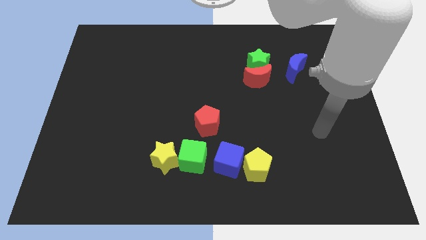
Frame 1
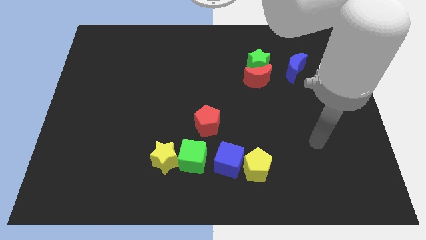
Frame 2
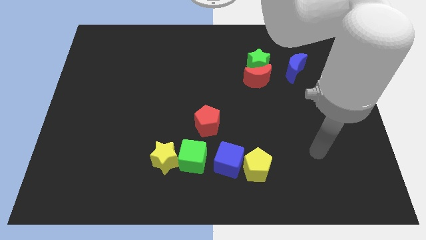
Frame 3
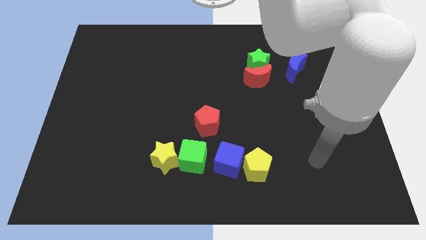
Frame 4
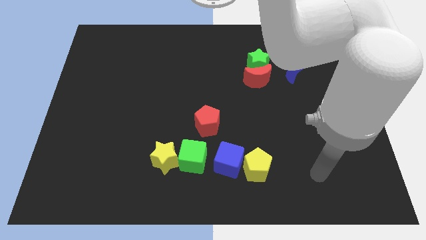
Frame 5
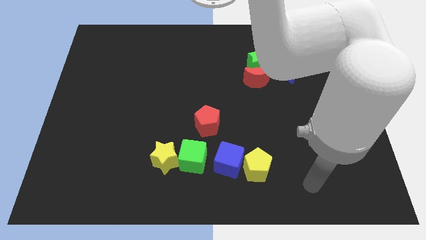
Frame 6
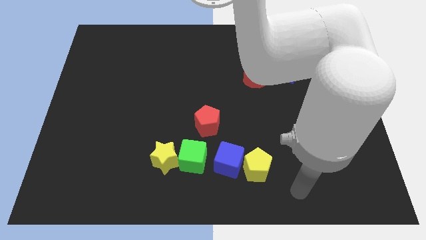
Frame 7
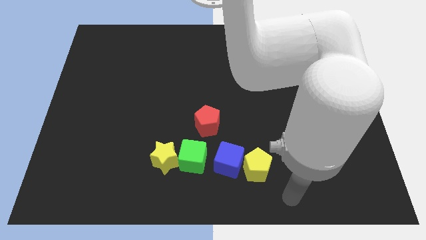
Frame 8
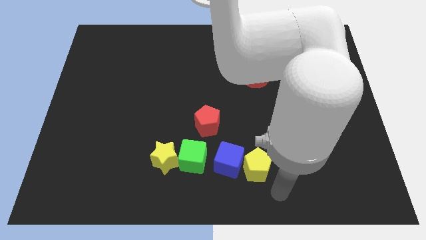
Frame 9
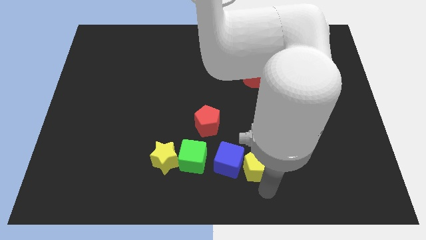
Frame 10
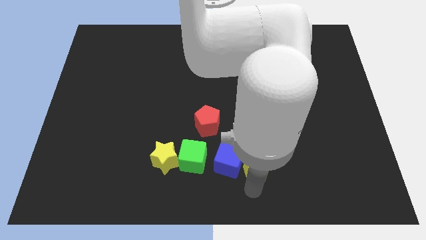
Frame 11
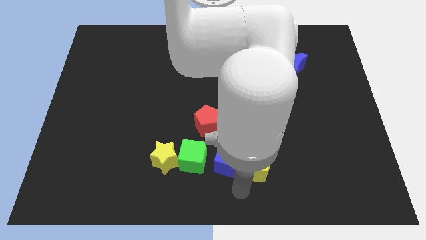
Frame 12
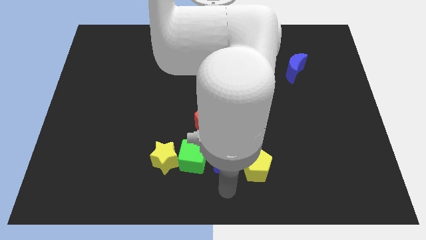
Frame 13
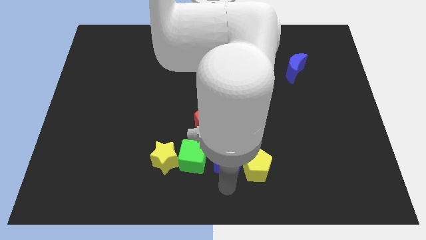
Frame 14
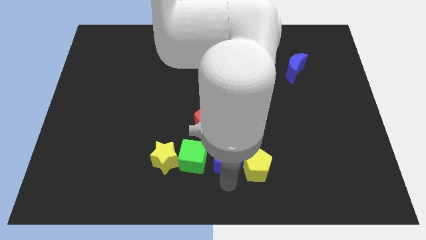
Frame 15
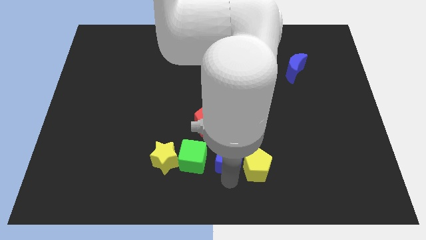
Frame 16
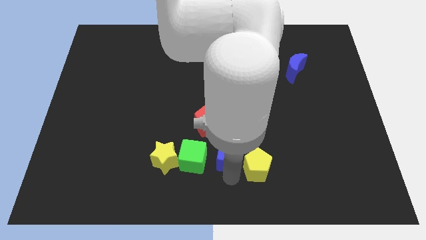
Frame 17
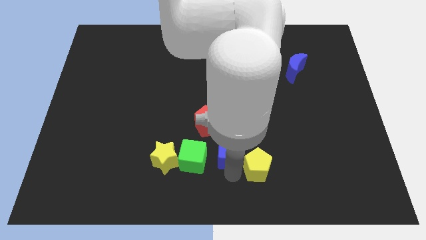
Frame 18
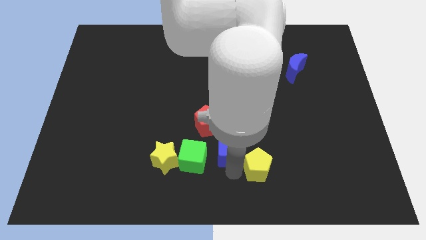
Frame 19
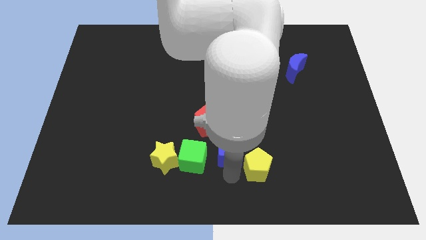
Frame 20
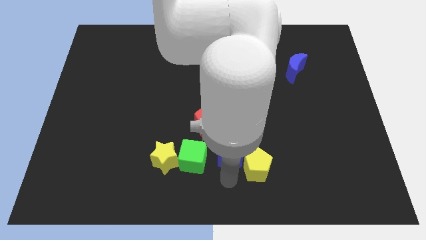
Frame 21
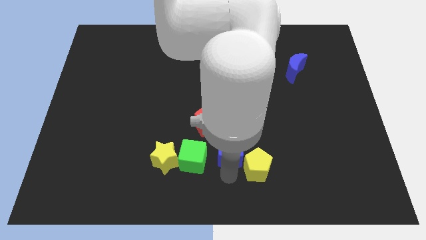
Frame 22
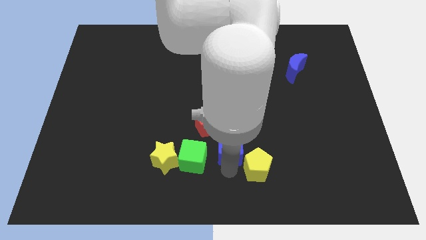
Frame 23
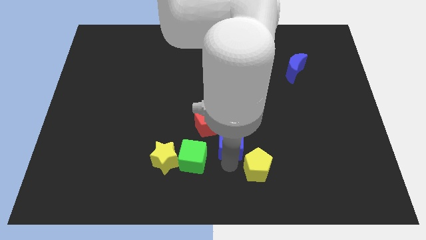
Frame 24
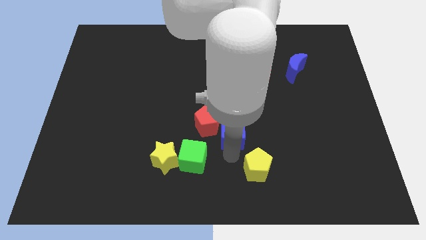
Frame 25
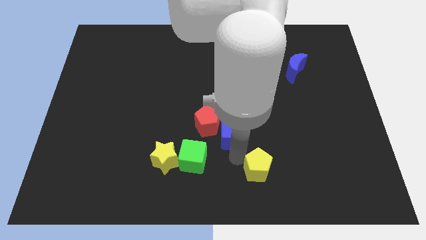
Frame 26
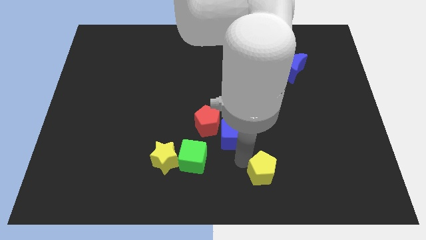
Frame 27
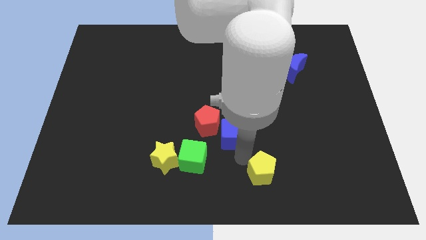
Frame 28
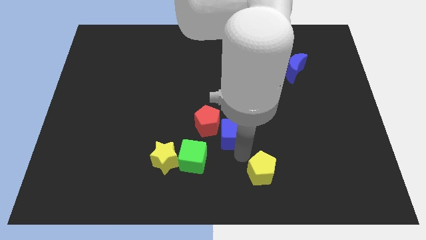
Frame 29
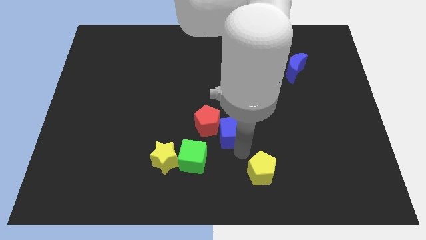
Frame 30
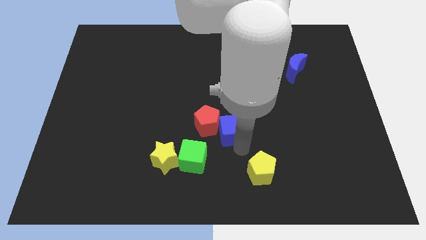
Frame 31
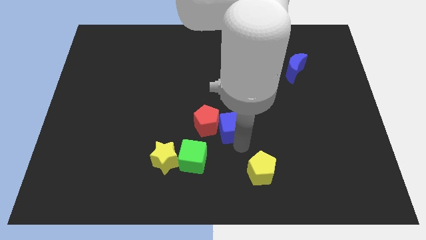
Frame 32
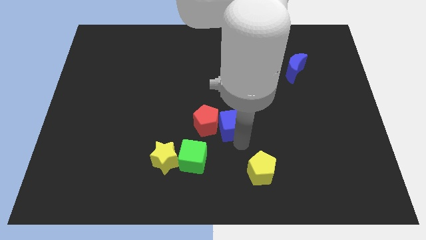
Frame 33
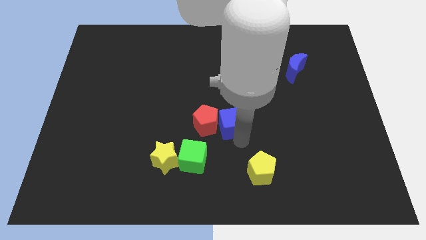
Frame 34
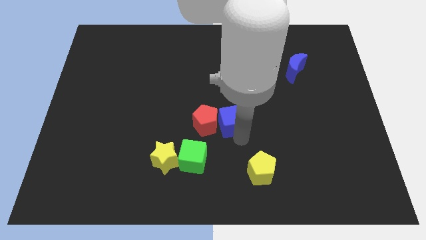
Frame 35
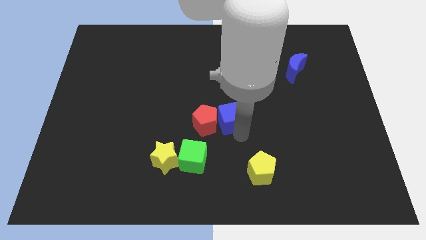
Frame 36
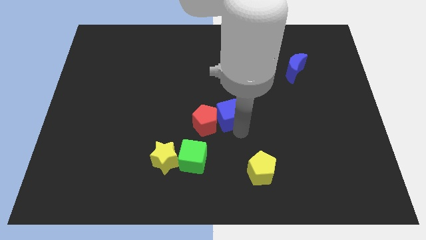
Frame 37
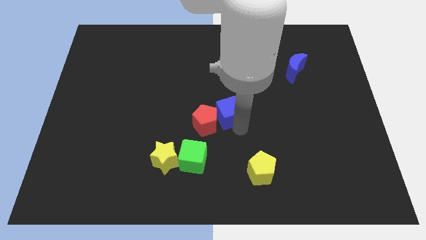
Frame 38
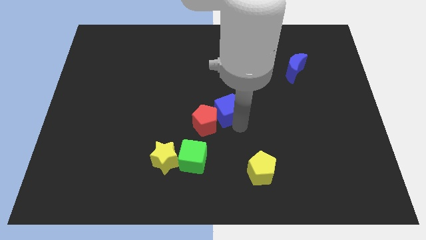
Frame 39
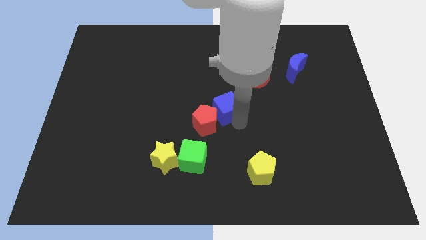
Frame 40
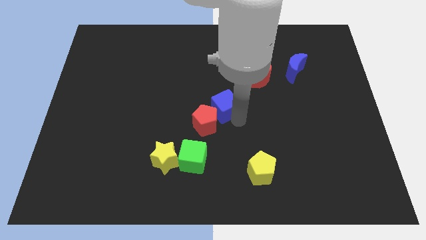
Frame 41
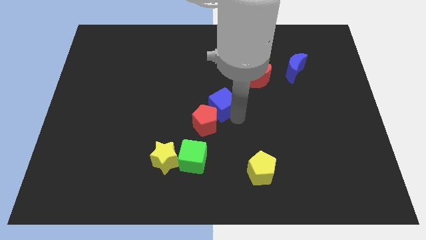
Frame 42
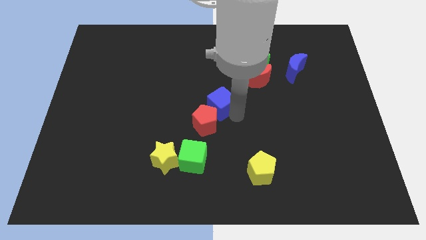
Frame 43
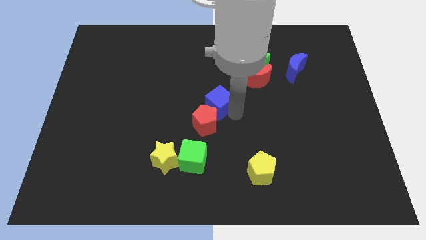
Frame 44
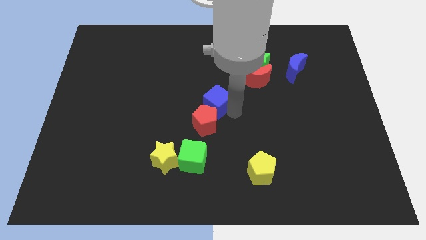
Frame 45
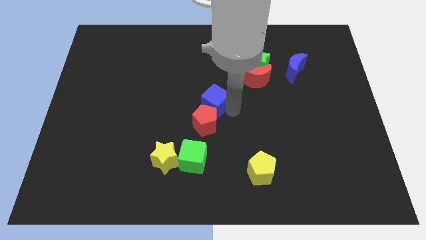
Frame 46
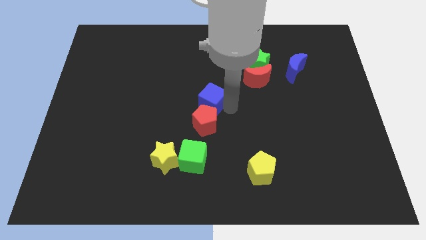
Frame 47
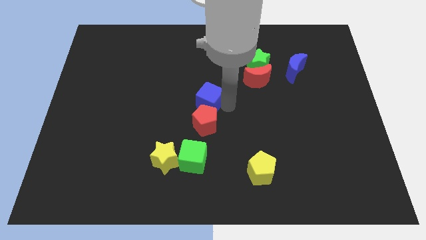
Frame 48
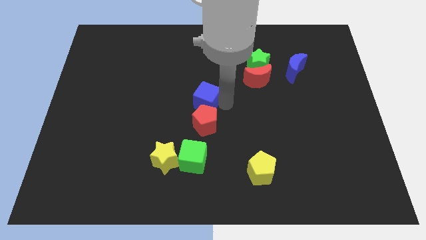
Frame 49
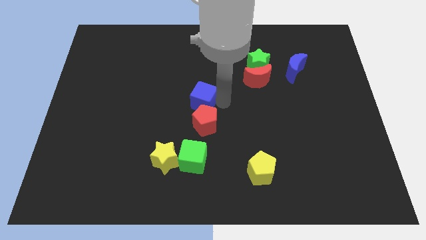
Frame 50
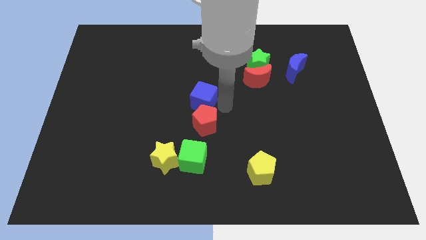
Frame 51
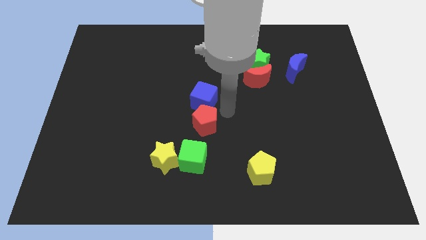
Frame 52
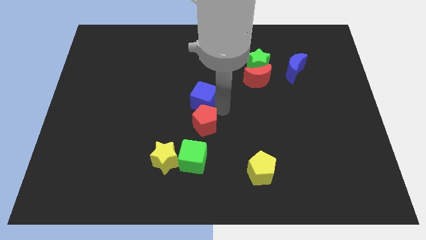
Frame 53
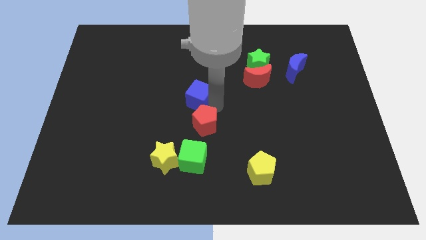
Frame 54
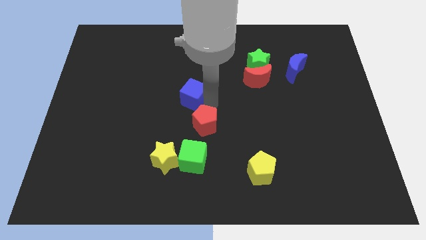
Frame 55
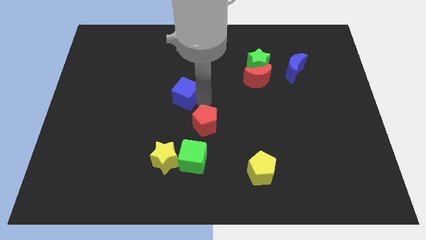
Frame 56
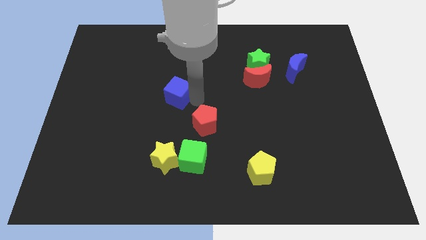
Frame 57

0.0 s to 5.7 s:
slide the blue cube diagonally upwards and left

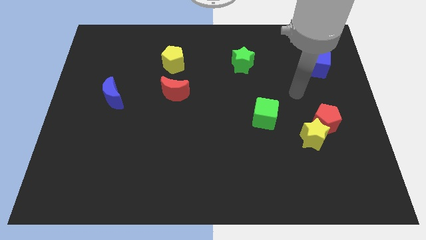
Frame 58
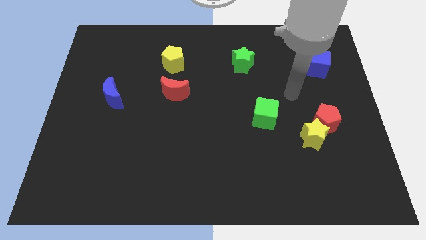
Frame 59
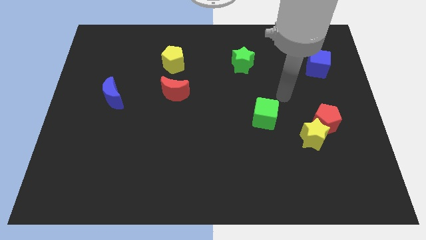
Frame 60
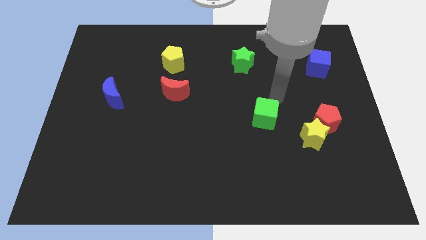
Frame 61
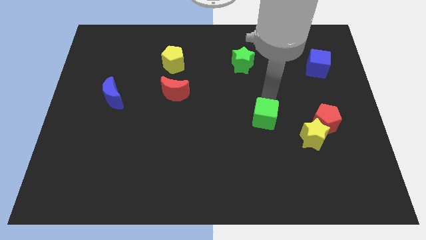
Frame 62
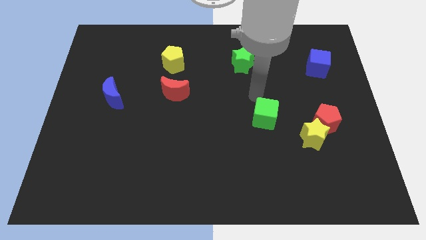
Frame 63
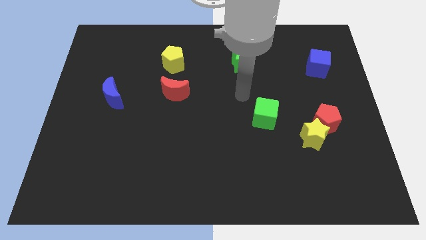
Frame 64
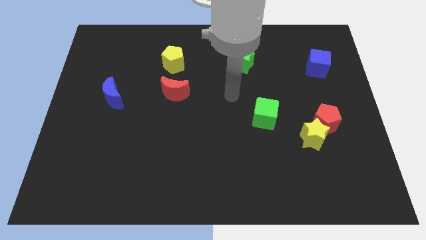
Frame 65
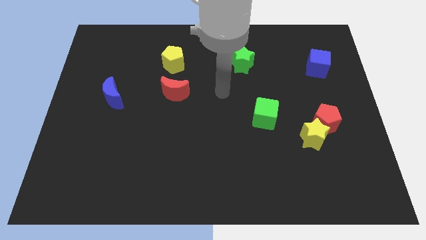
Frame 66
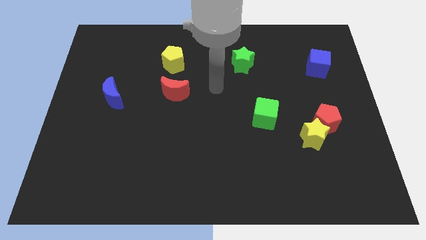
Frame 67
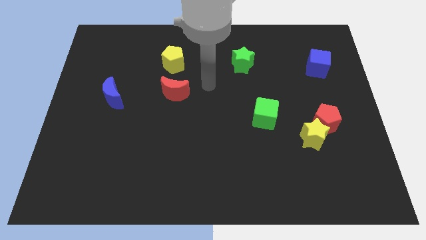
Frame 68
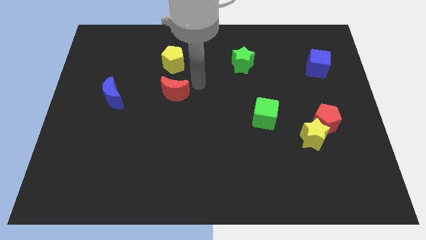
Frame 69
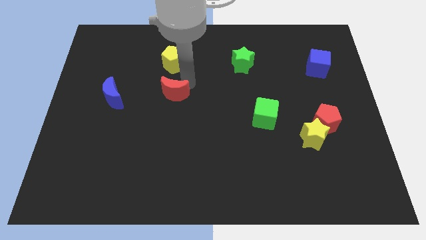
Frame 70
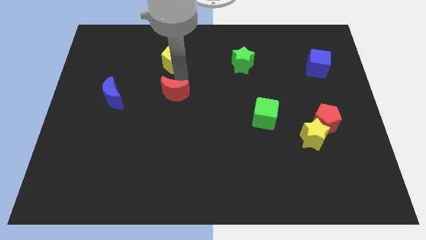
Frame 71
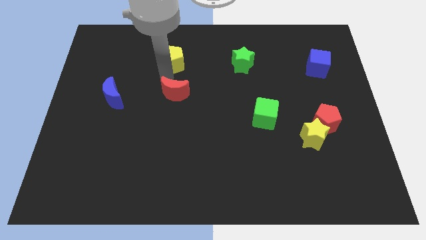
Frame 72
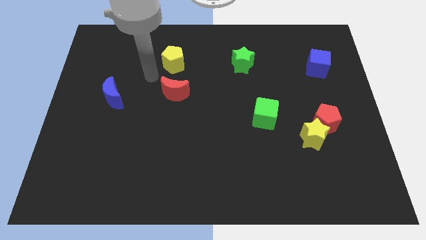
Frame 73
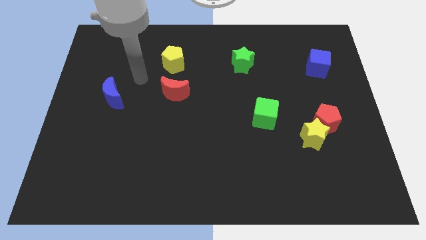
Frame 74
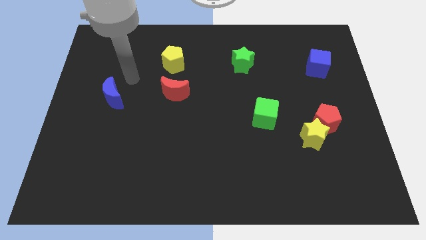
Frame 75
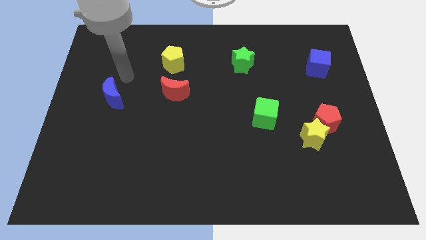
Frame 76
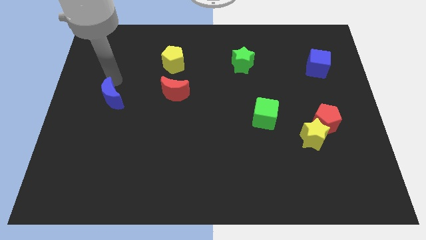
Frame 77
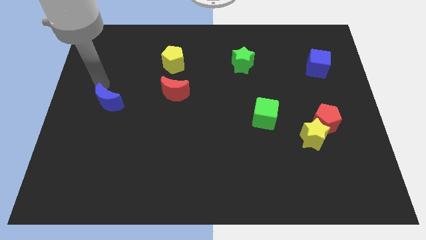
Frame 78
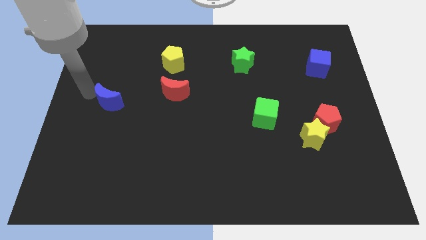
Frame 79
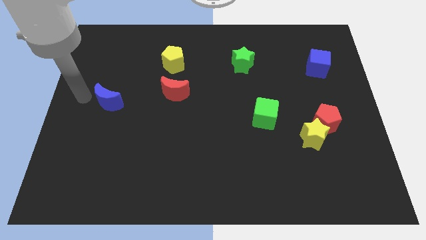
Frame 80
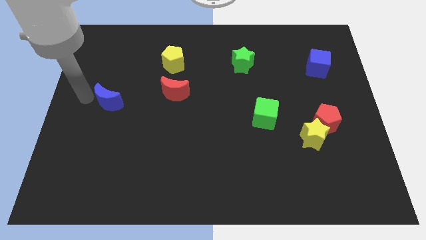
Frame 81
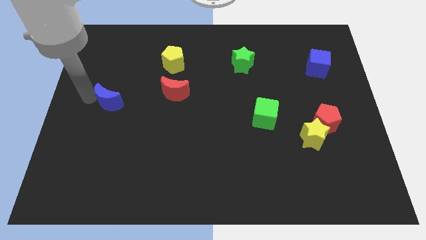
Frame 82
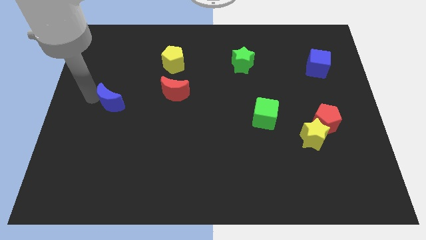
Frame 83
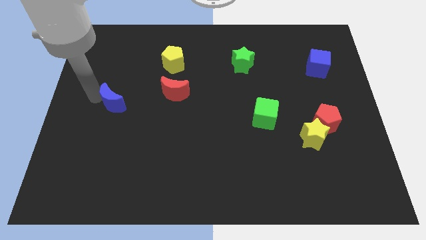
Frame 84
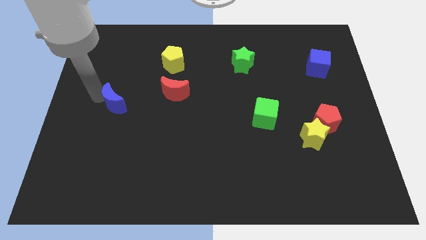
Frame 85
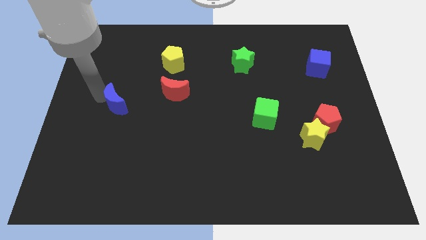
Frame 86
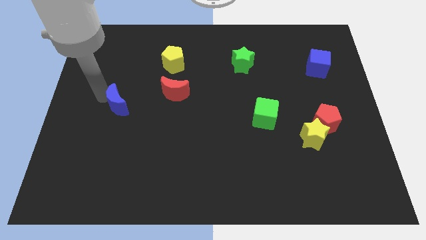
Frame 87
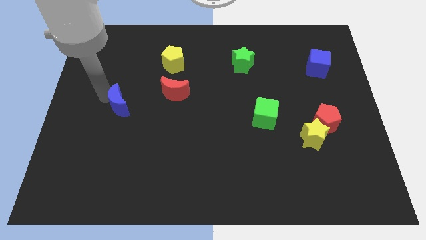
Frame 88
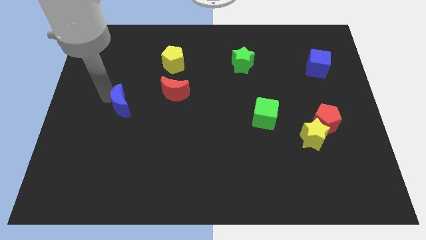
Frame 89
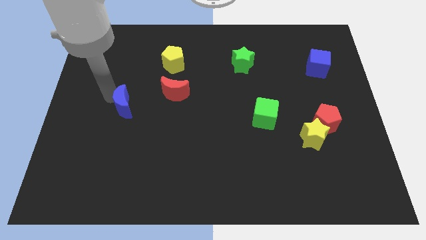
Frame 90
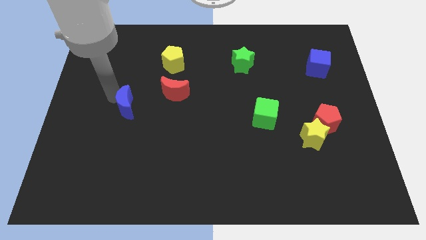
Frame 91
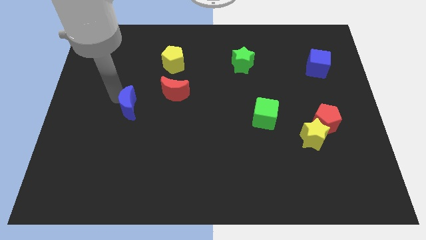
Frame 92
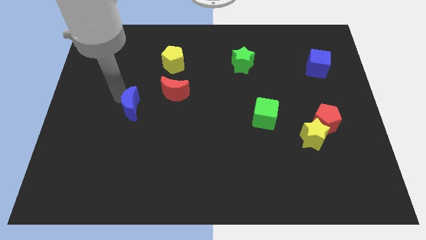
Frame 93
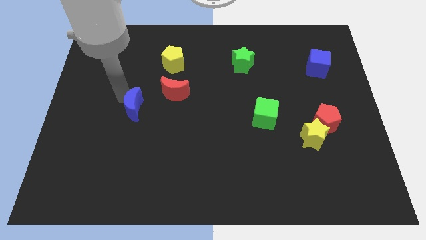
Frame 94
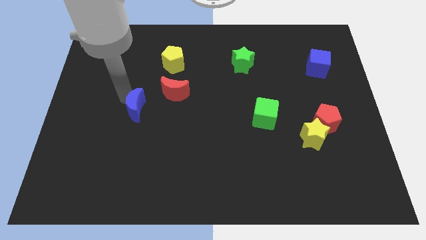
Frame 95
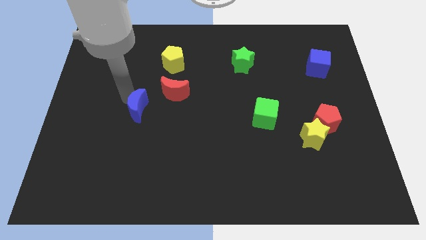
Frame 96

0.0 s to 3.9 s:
slightly move the blue moon downwards and then right
